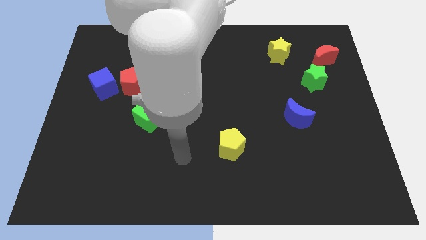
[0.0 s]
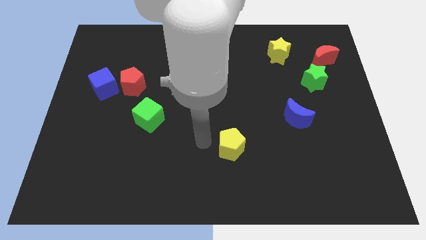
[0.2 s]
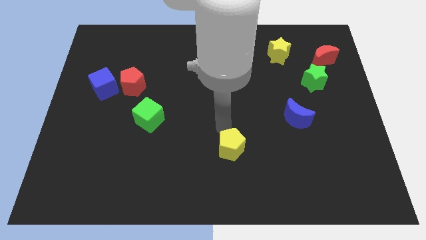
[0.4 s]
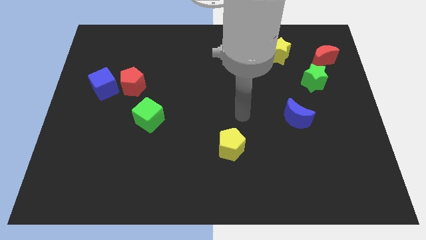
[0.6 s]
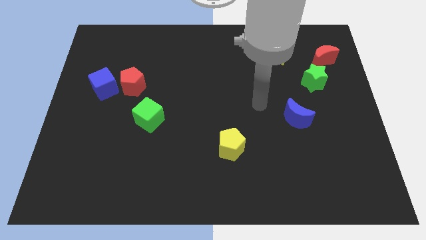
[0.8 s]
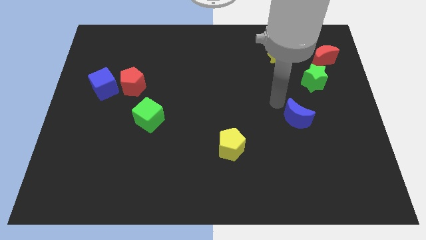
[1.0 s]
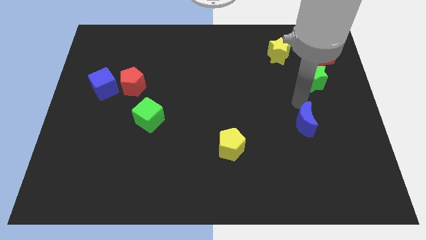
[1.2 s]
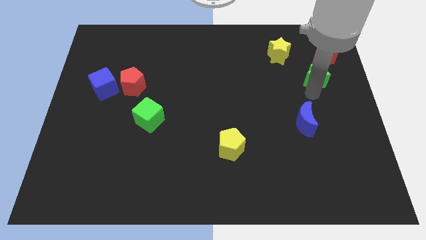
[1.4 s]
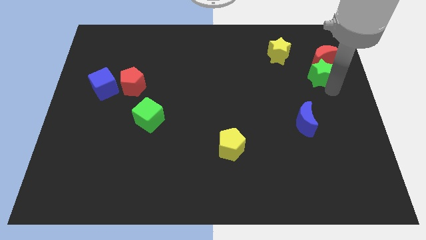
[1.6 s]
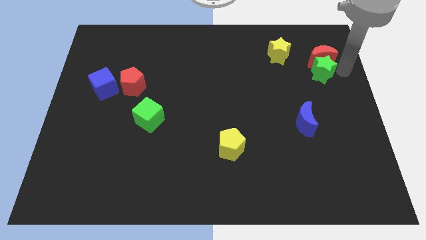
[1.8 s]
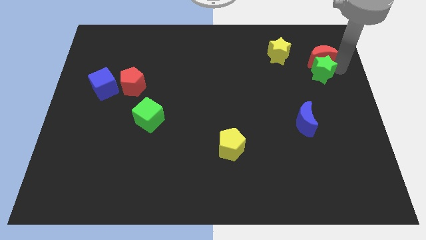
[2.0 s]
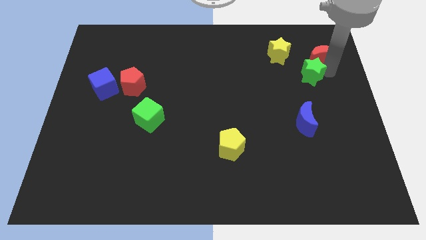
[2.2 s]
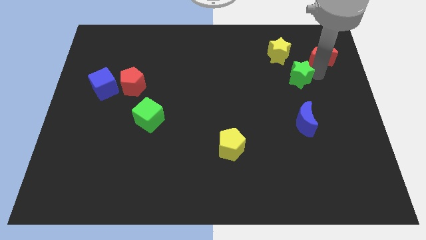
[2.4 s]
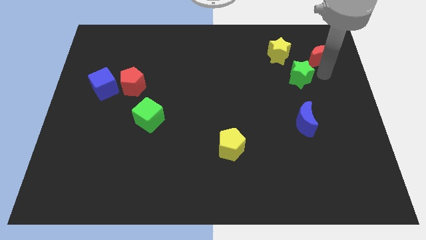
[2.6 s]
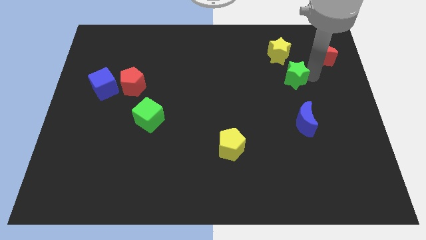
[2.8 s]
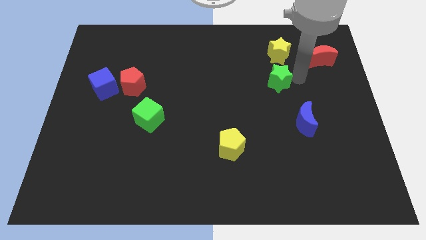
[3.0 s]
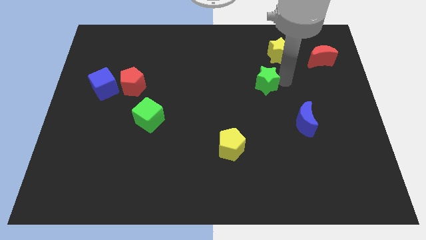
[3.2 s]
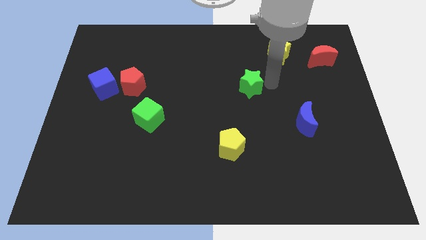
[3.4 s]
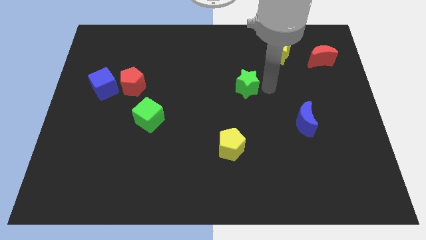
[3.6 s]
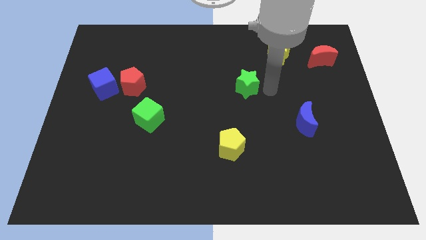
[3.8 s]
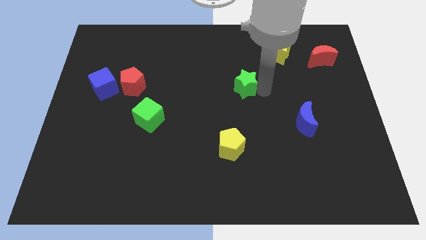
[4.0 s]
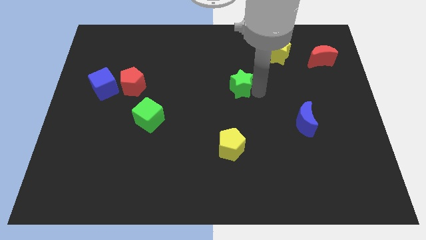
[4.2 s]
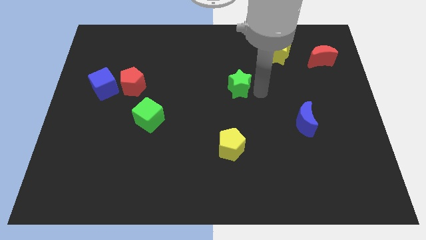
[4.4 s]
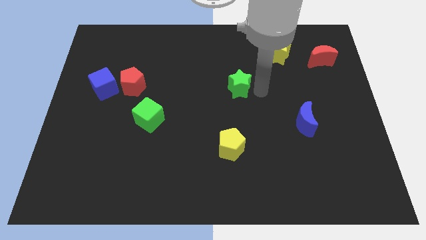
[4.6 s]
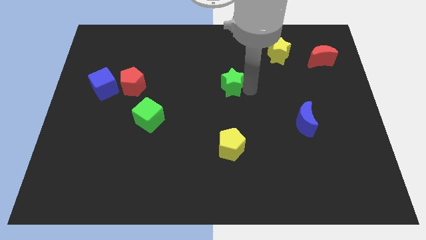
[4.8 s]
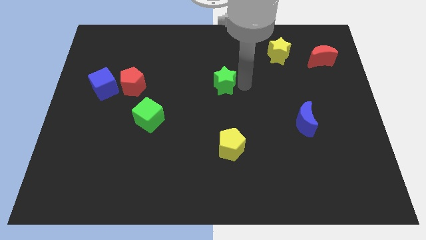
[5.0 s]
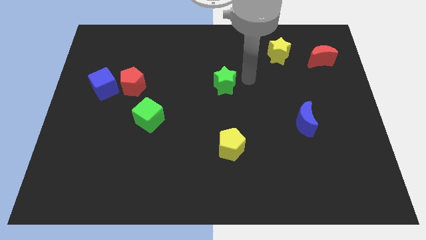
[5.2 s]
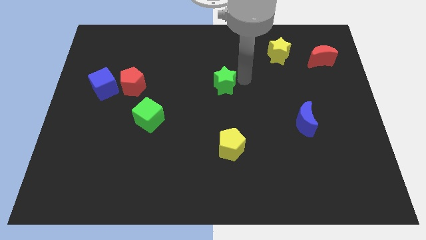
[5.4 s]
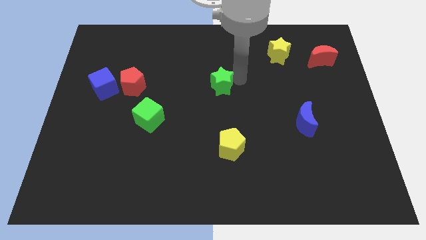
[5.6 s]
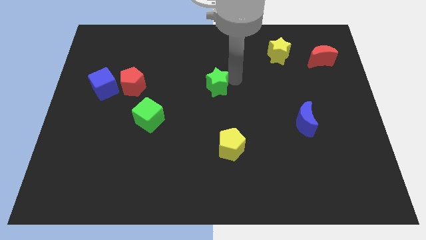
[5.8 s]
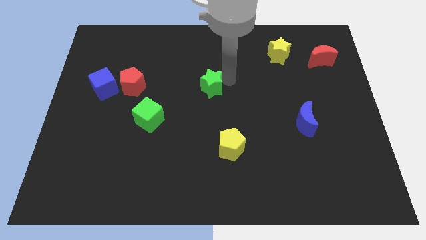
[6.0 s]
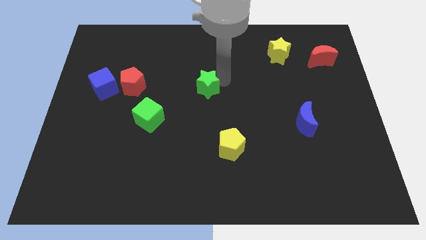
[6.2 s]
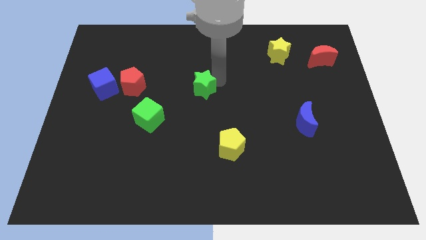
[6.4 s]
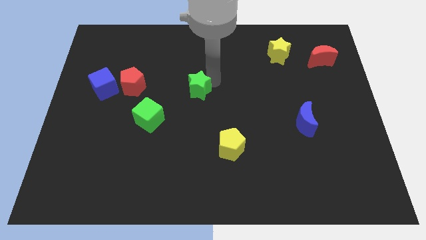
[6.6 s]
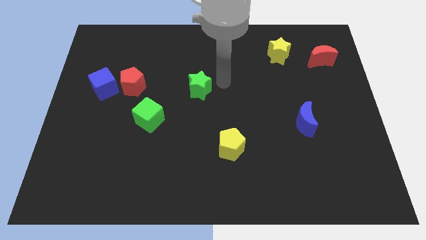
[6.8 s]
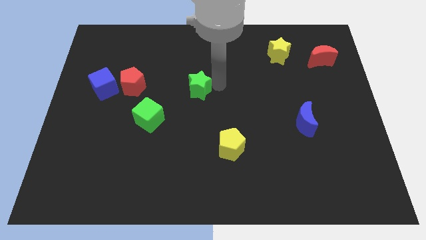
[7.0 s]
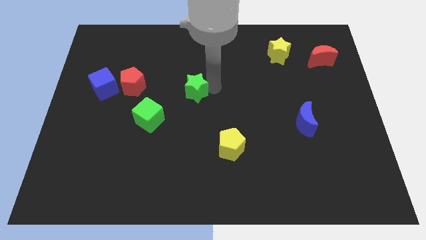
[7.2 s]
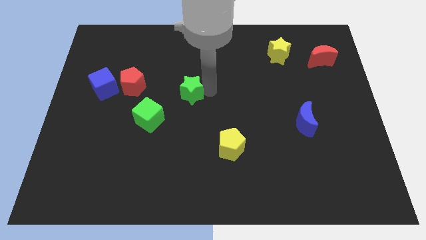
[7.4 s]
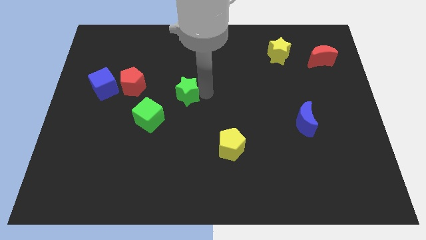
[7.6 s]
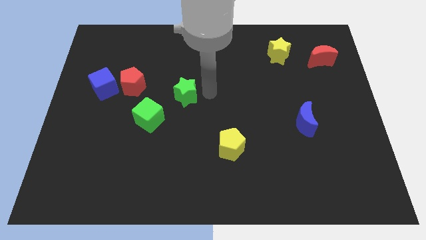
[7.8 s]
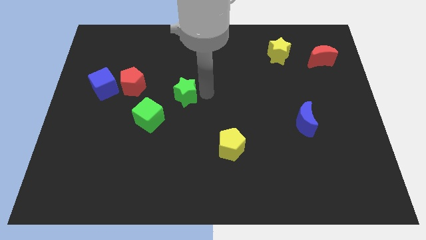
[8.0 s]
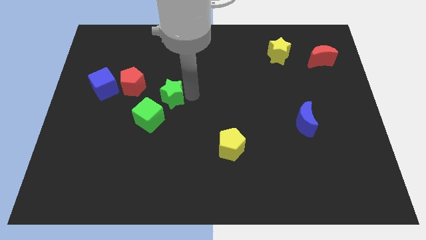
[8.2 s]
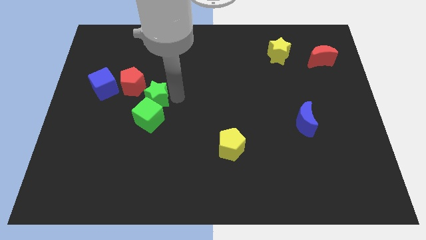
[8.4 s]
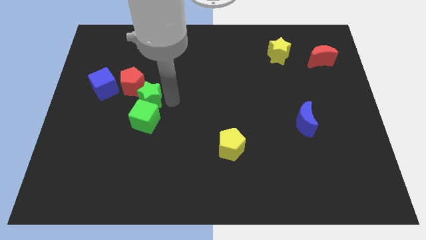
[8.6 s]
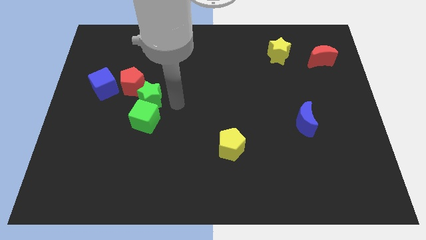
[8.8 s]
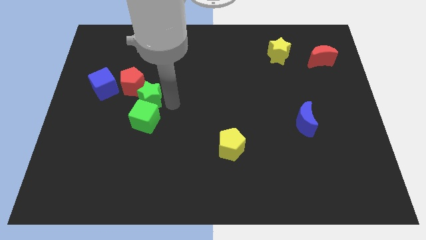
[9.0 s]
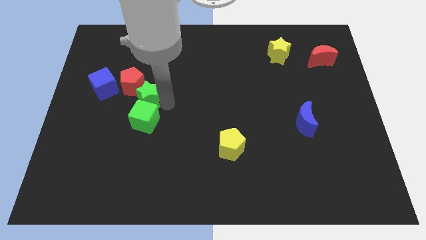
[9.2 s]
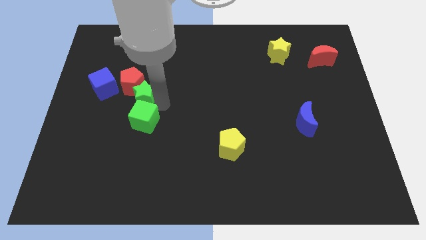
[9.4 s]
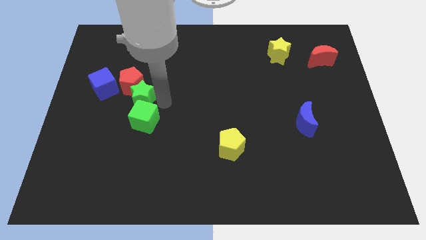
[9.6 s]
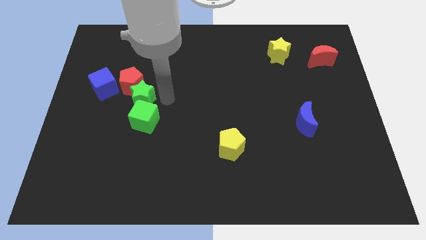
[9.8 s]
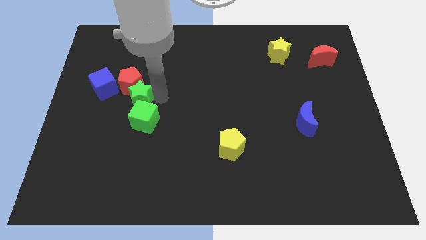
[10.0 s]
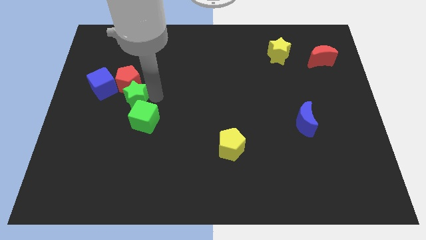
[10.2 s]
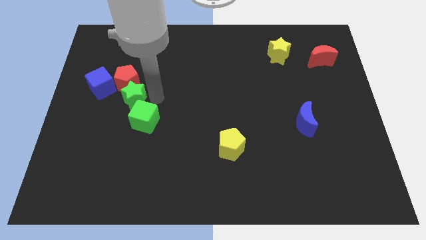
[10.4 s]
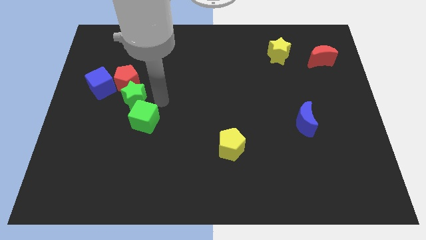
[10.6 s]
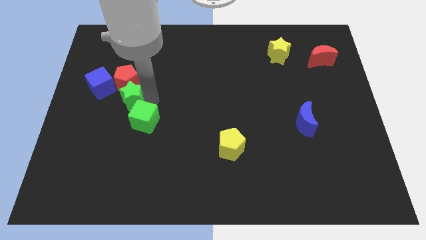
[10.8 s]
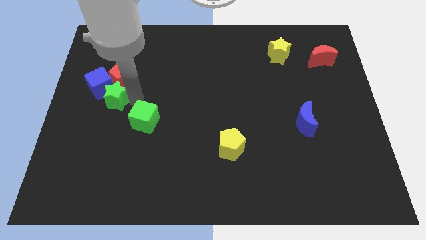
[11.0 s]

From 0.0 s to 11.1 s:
push the green star next to the blue cube
